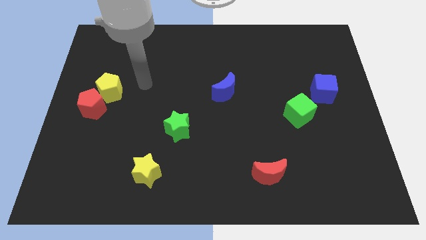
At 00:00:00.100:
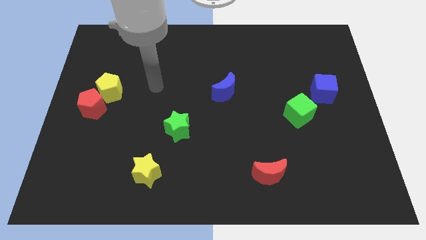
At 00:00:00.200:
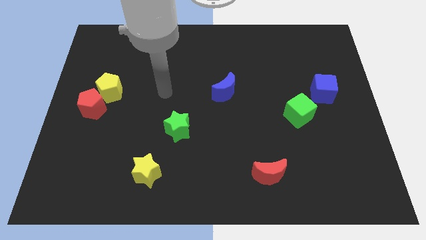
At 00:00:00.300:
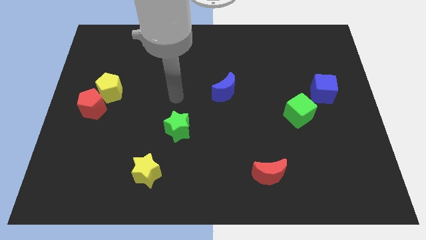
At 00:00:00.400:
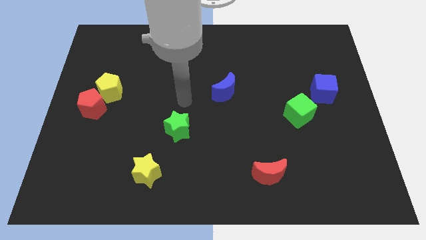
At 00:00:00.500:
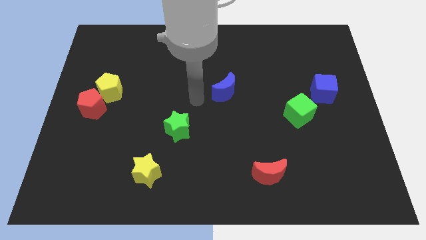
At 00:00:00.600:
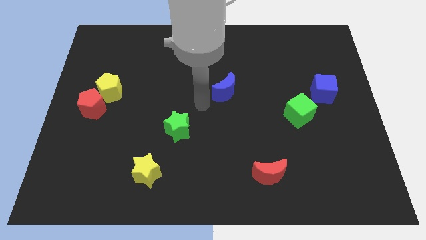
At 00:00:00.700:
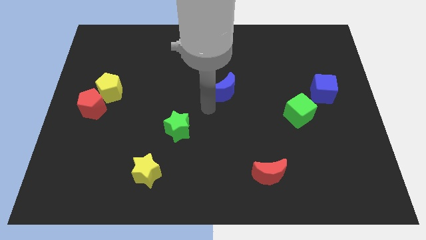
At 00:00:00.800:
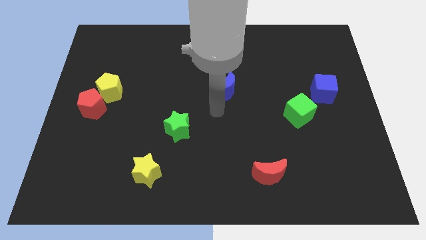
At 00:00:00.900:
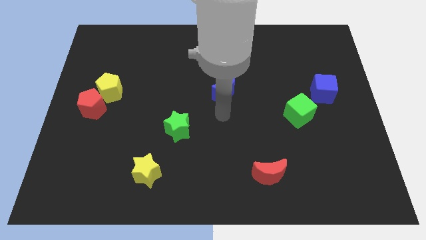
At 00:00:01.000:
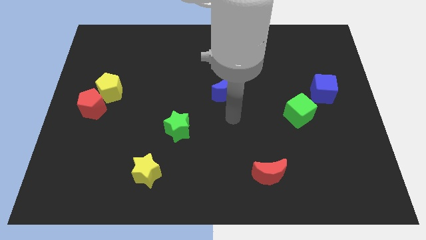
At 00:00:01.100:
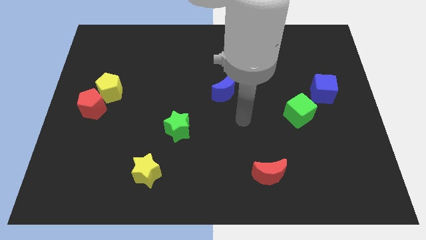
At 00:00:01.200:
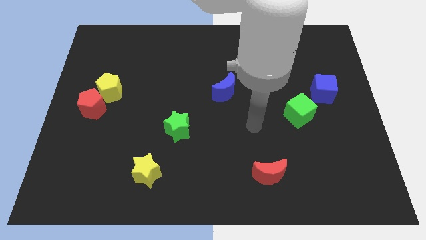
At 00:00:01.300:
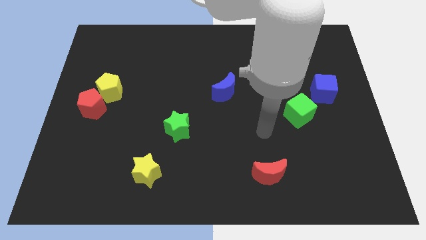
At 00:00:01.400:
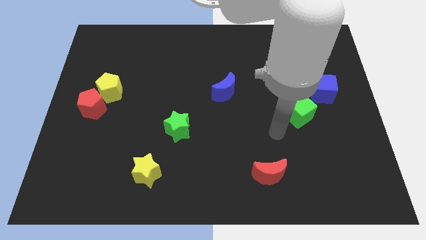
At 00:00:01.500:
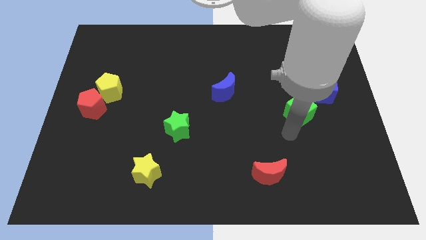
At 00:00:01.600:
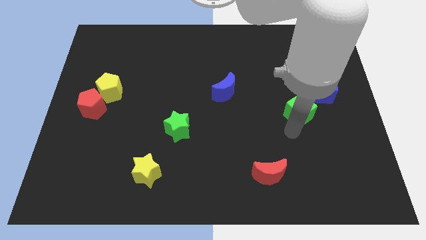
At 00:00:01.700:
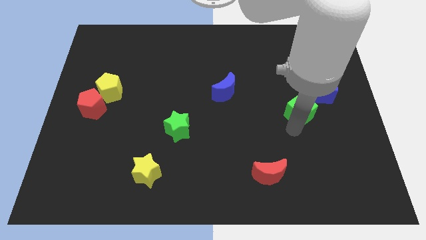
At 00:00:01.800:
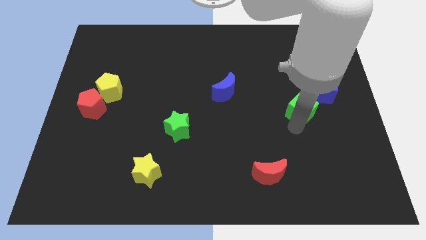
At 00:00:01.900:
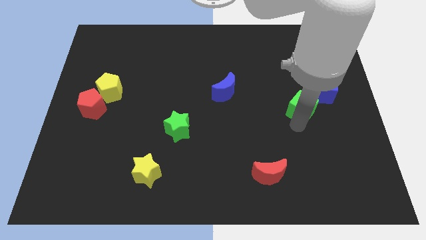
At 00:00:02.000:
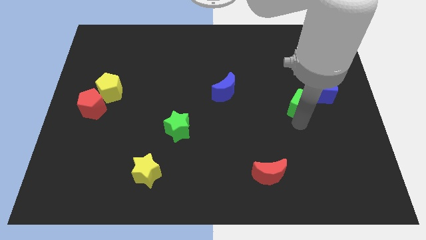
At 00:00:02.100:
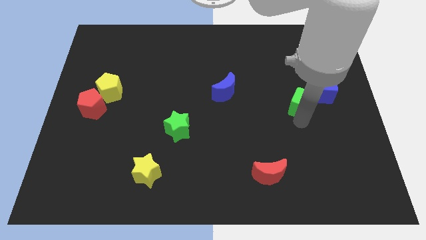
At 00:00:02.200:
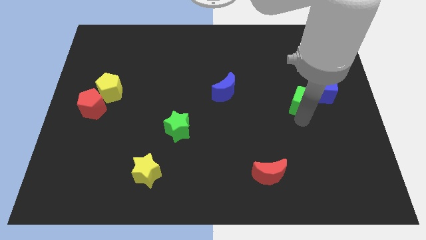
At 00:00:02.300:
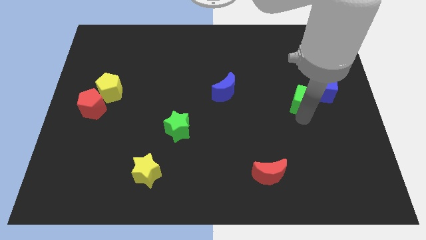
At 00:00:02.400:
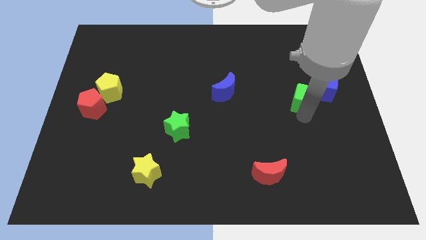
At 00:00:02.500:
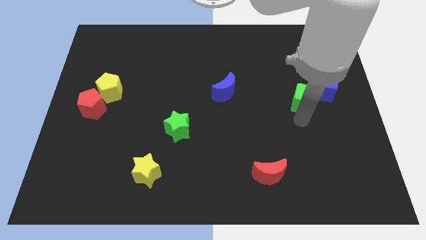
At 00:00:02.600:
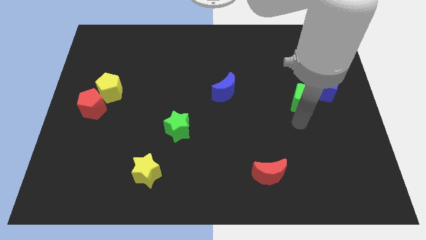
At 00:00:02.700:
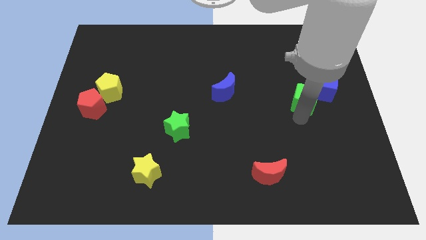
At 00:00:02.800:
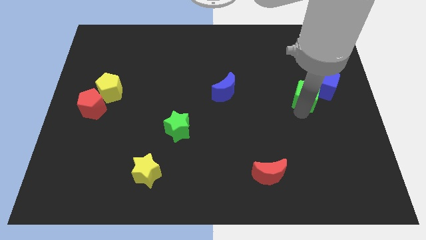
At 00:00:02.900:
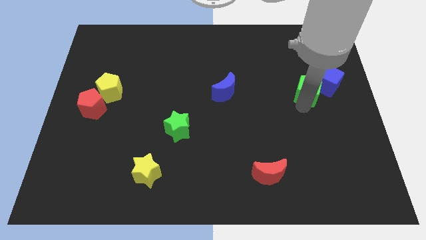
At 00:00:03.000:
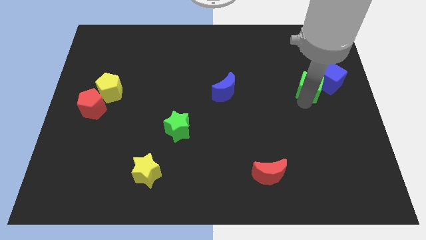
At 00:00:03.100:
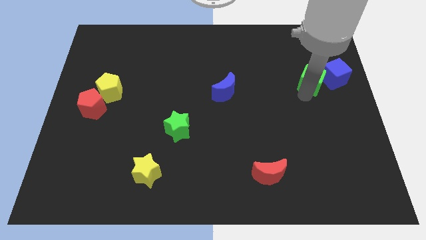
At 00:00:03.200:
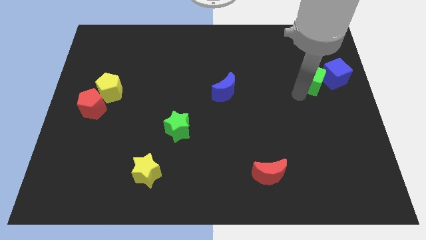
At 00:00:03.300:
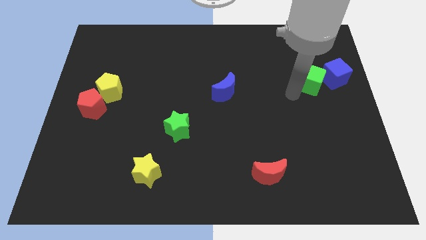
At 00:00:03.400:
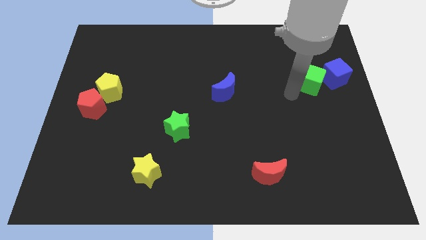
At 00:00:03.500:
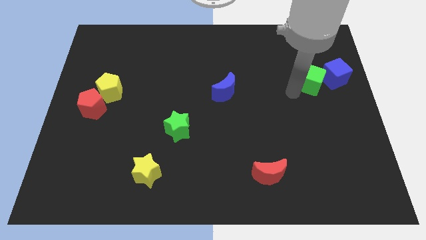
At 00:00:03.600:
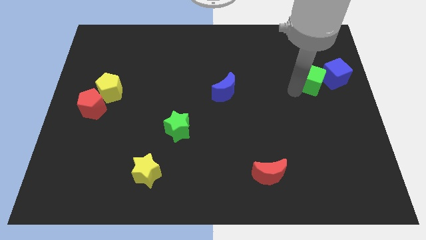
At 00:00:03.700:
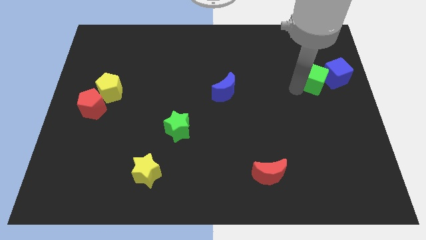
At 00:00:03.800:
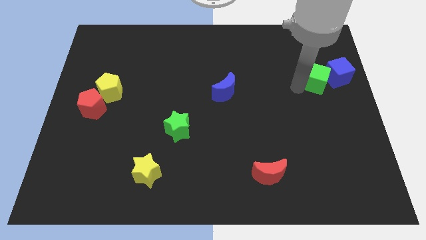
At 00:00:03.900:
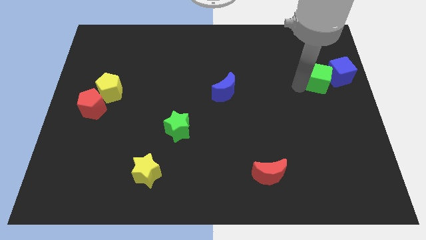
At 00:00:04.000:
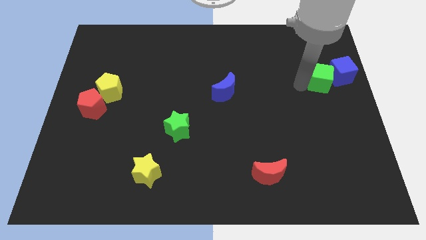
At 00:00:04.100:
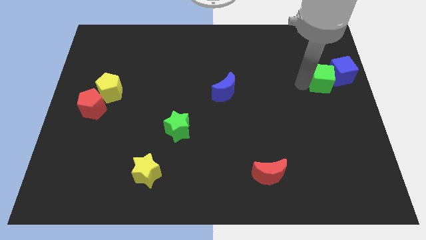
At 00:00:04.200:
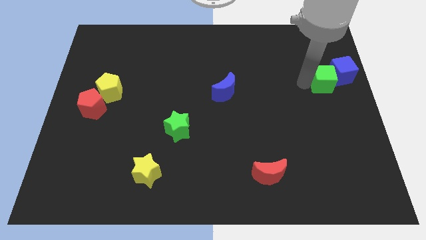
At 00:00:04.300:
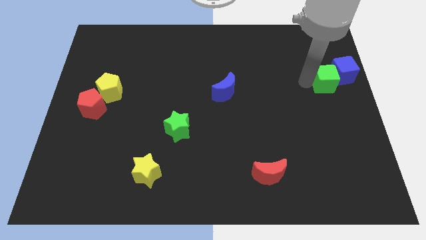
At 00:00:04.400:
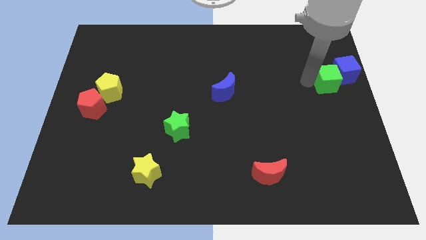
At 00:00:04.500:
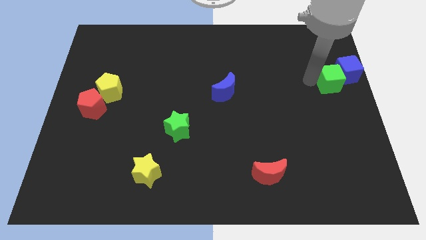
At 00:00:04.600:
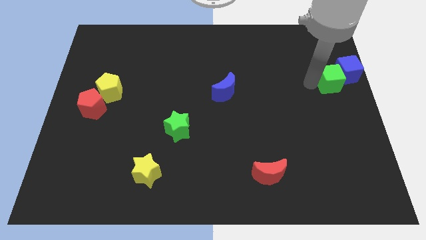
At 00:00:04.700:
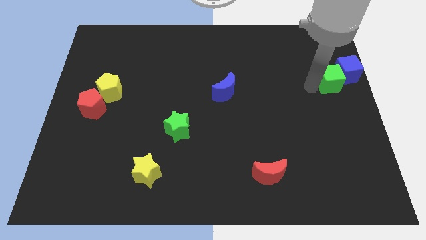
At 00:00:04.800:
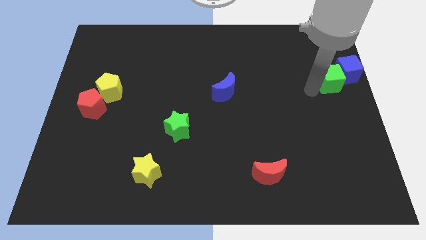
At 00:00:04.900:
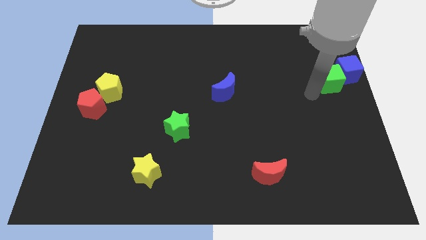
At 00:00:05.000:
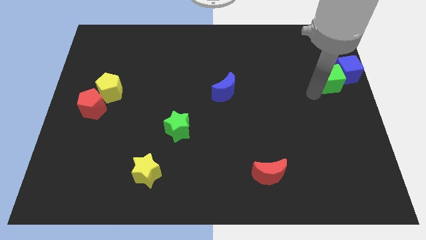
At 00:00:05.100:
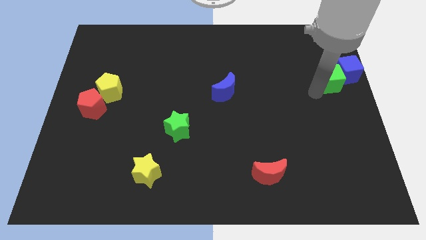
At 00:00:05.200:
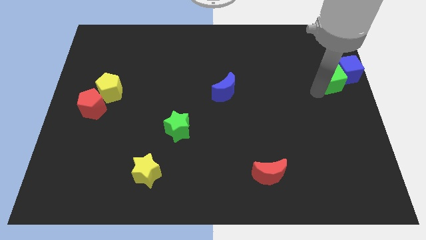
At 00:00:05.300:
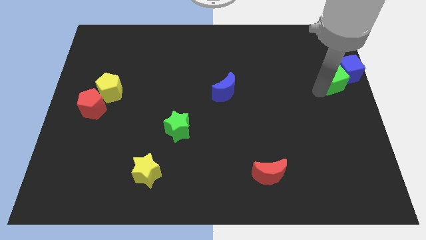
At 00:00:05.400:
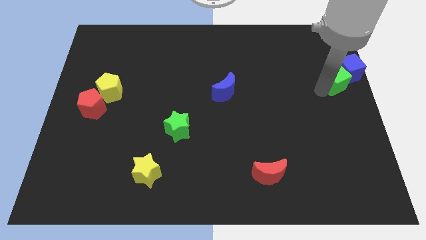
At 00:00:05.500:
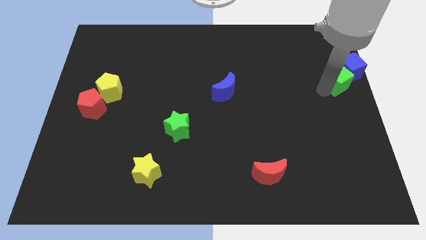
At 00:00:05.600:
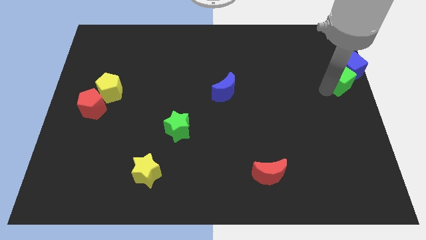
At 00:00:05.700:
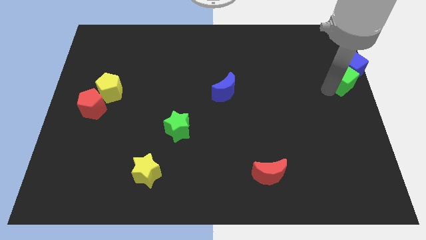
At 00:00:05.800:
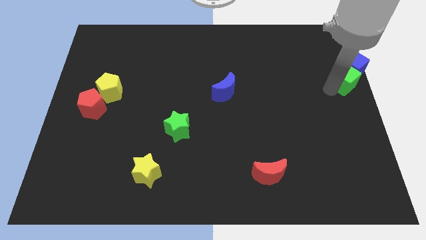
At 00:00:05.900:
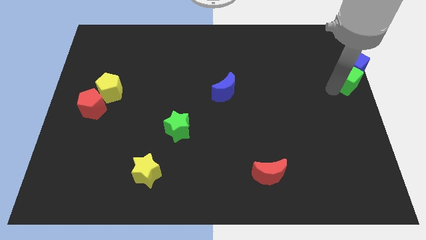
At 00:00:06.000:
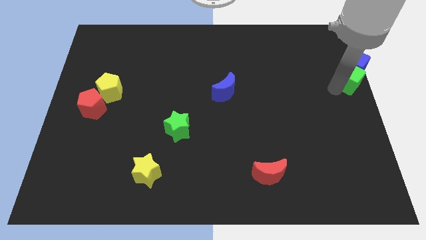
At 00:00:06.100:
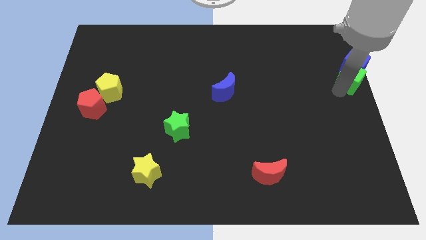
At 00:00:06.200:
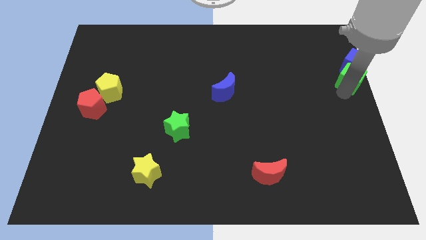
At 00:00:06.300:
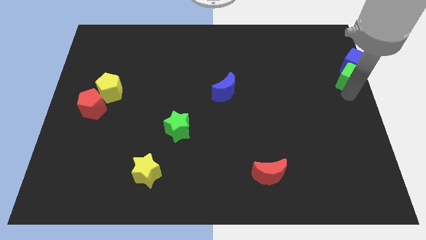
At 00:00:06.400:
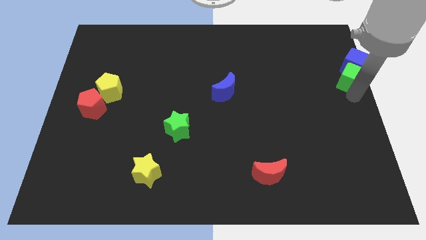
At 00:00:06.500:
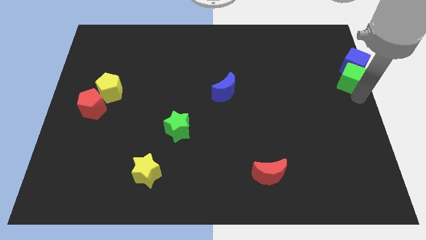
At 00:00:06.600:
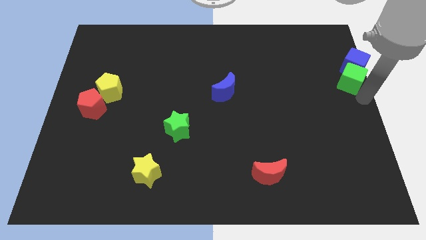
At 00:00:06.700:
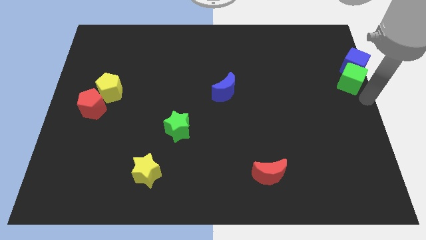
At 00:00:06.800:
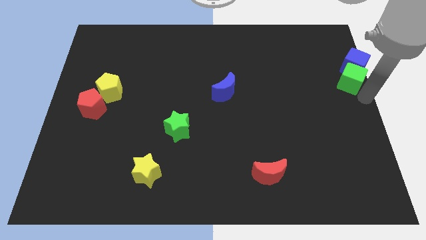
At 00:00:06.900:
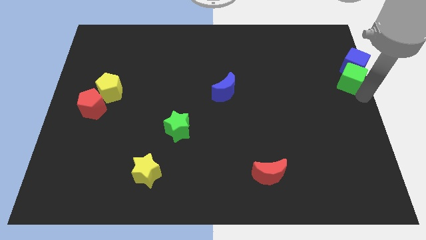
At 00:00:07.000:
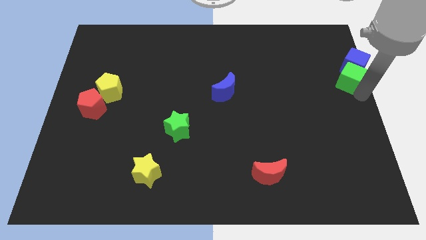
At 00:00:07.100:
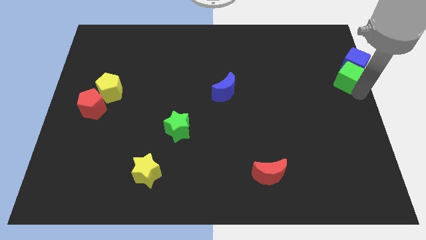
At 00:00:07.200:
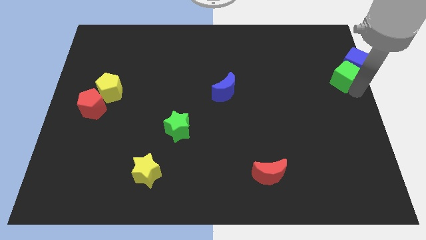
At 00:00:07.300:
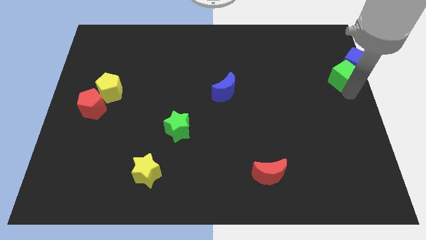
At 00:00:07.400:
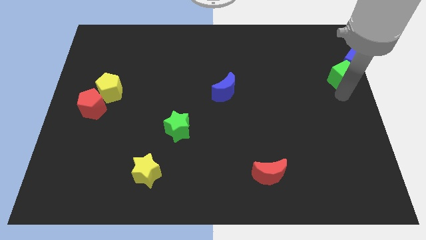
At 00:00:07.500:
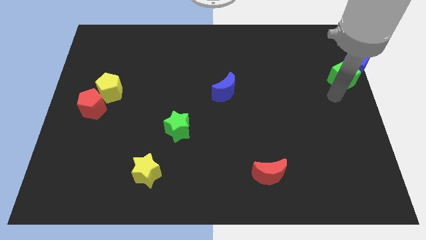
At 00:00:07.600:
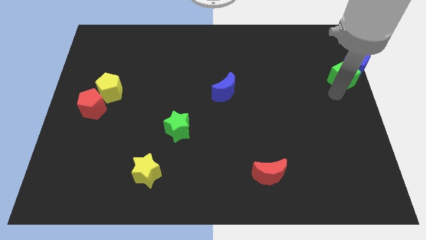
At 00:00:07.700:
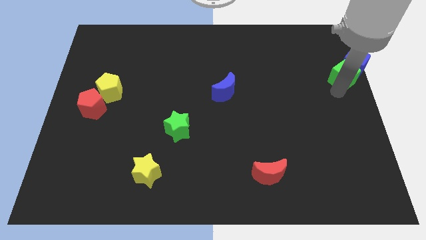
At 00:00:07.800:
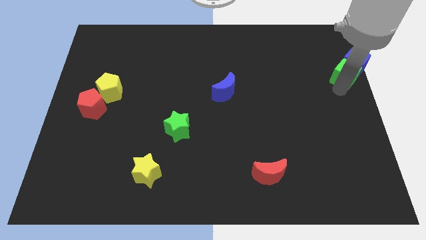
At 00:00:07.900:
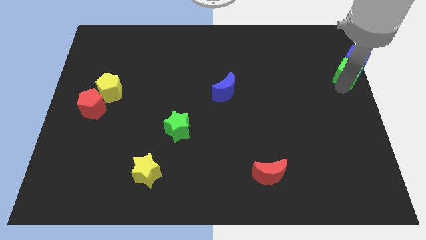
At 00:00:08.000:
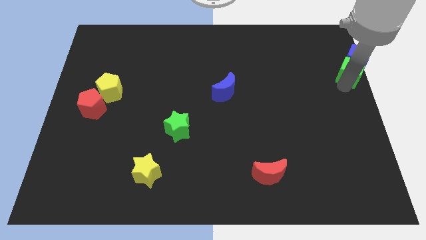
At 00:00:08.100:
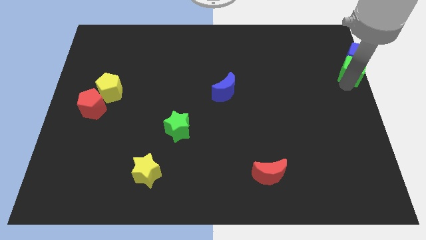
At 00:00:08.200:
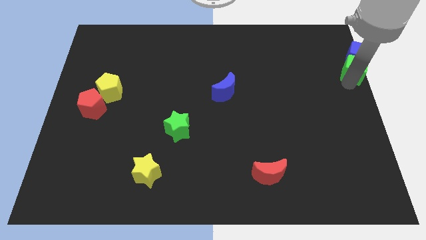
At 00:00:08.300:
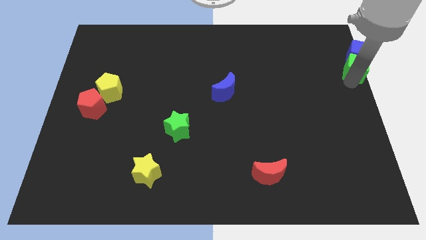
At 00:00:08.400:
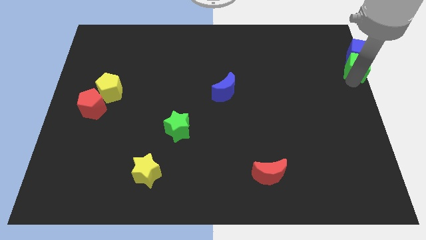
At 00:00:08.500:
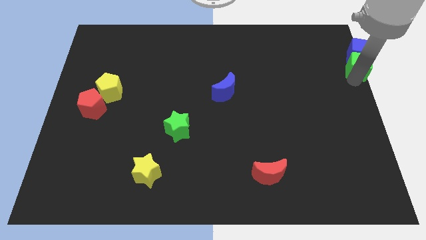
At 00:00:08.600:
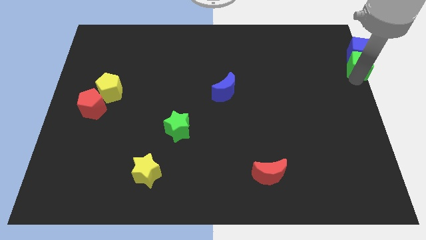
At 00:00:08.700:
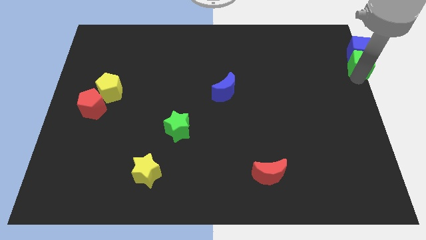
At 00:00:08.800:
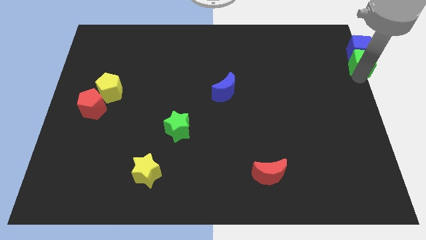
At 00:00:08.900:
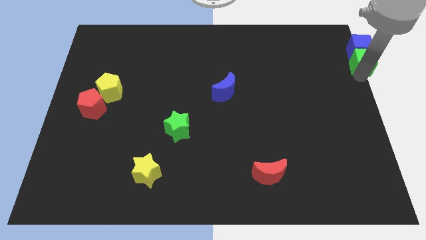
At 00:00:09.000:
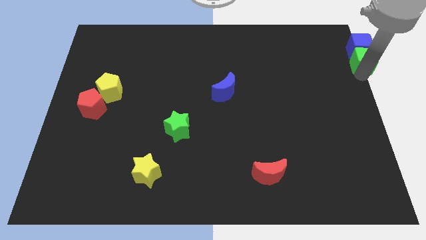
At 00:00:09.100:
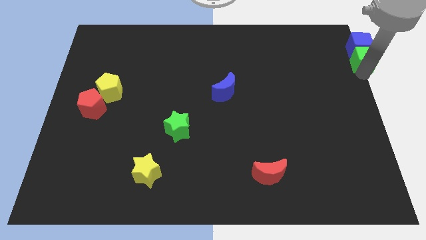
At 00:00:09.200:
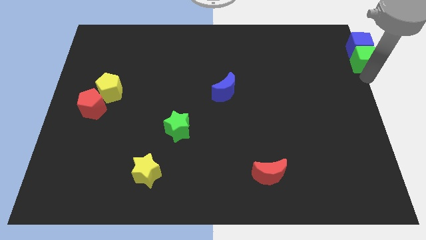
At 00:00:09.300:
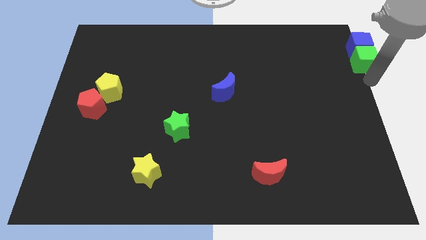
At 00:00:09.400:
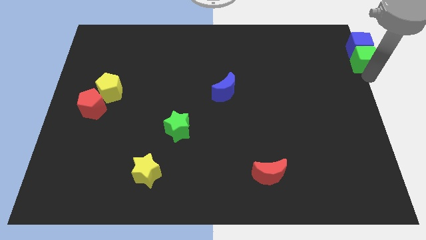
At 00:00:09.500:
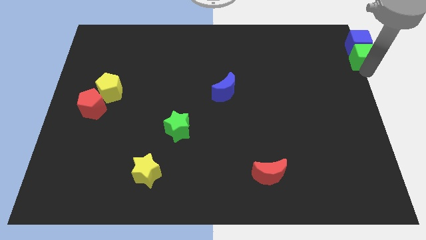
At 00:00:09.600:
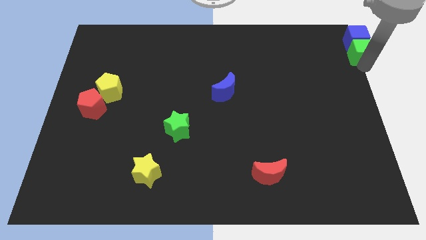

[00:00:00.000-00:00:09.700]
push the green cube to the top right corner
